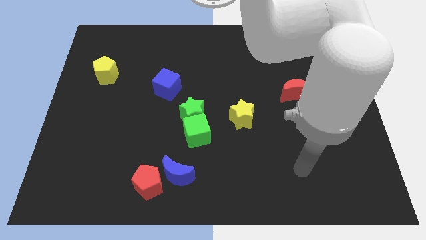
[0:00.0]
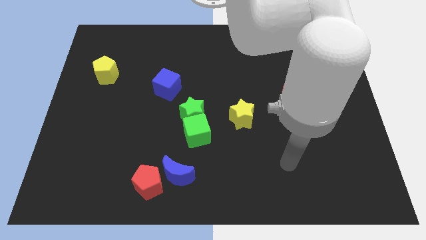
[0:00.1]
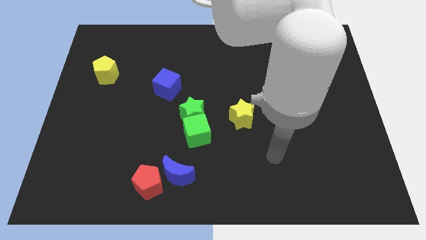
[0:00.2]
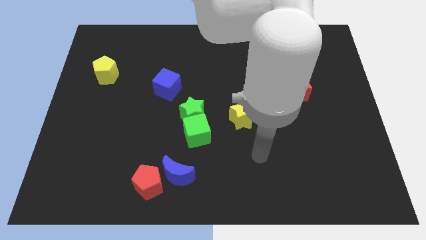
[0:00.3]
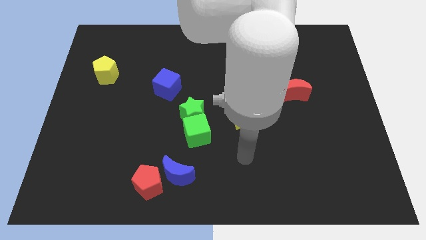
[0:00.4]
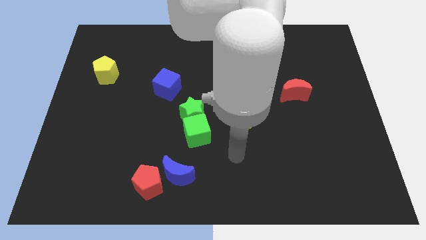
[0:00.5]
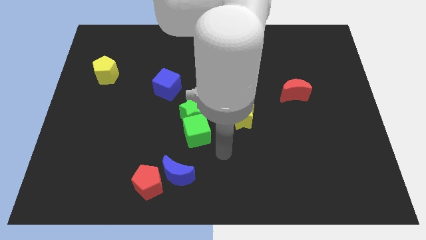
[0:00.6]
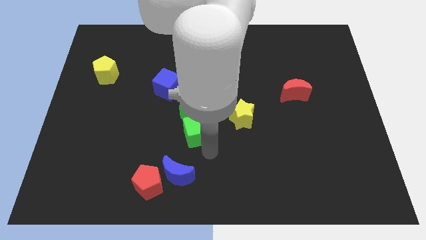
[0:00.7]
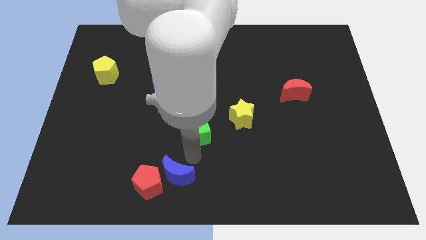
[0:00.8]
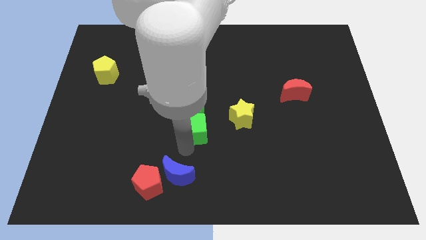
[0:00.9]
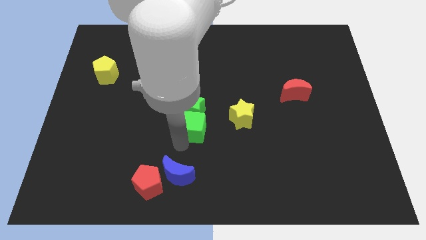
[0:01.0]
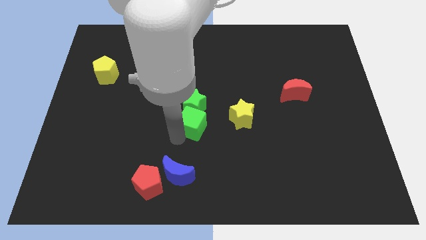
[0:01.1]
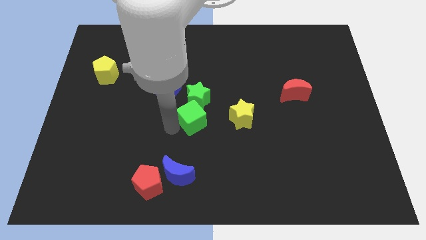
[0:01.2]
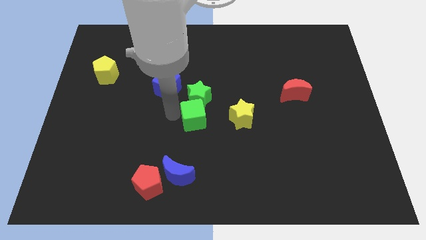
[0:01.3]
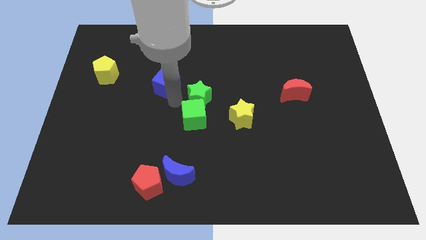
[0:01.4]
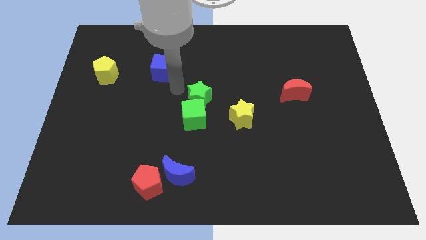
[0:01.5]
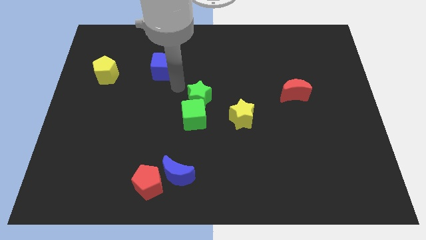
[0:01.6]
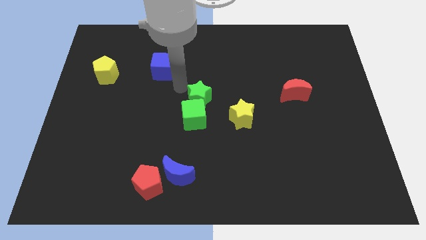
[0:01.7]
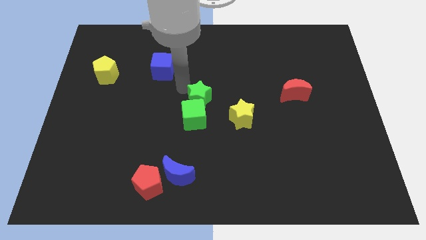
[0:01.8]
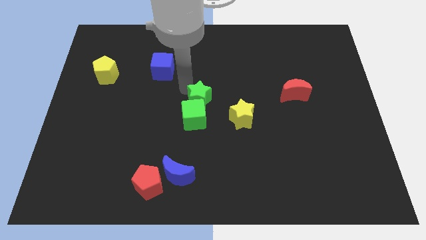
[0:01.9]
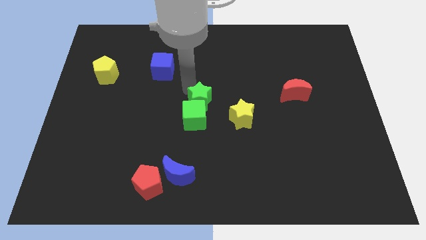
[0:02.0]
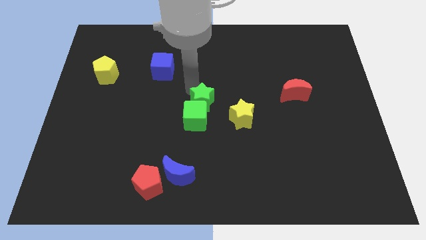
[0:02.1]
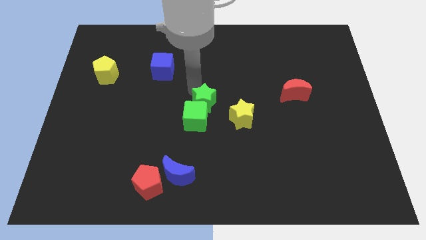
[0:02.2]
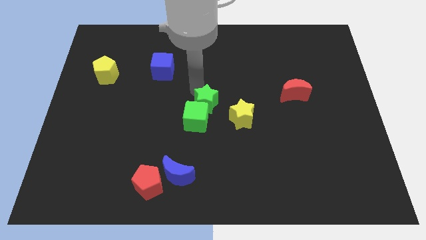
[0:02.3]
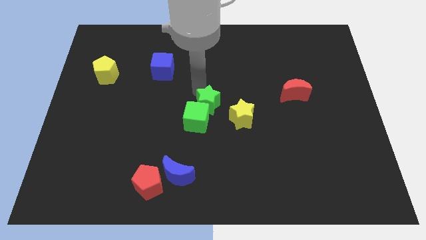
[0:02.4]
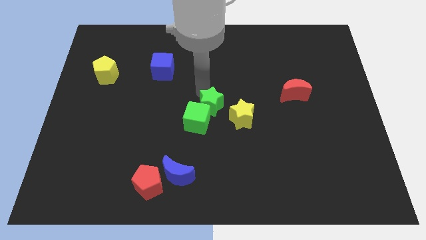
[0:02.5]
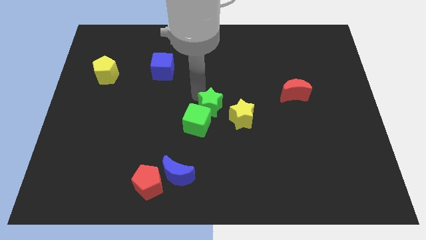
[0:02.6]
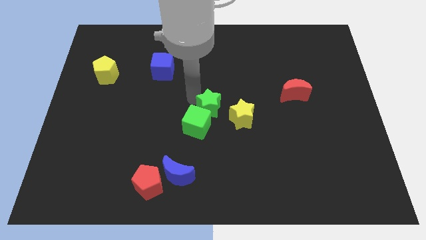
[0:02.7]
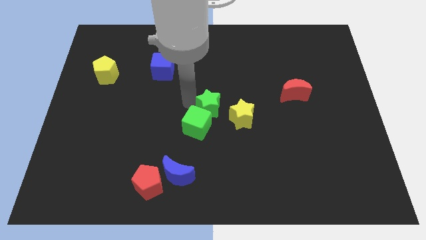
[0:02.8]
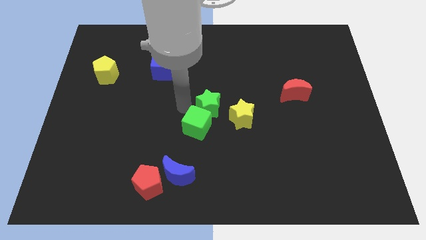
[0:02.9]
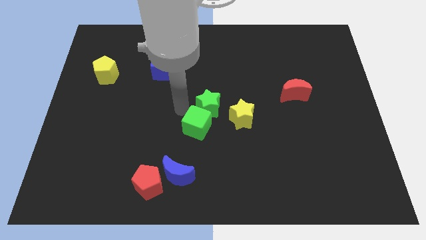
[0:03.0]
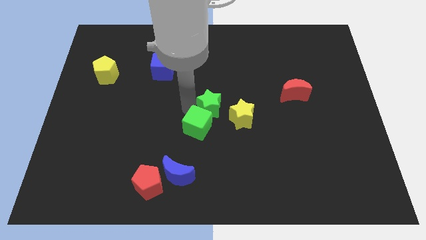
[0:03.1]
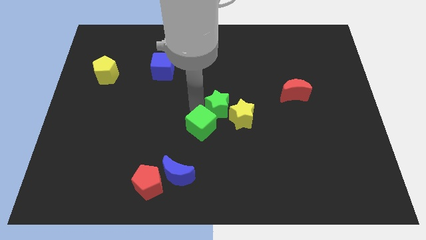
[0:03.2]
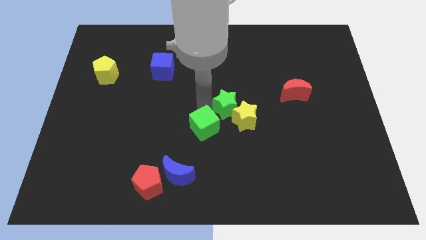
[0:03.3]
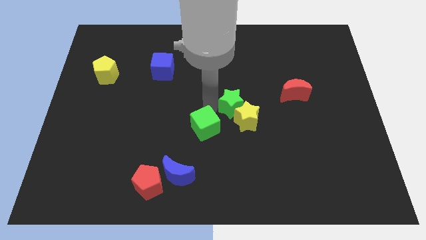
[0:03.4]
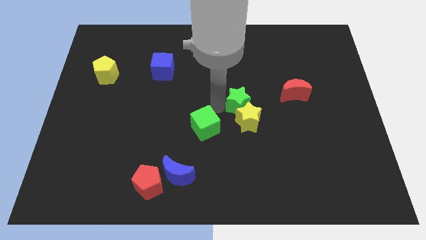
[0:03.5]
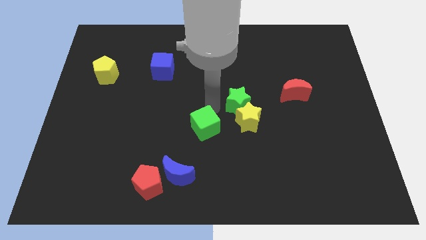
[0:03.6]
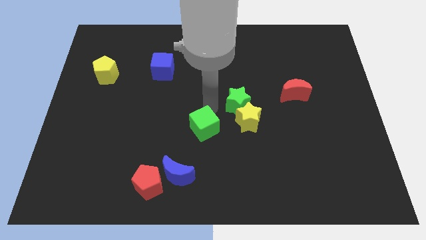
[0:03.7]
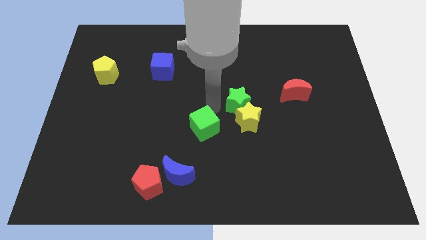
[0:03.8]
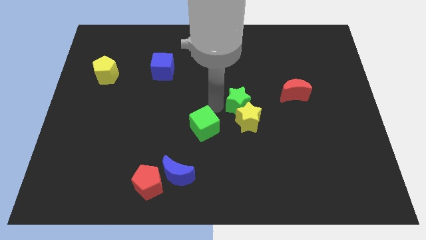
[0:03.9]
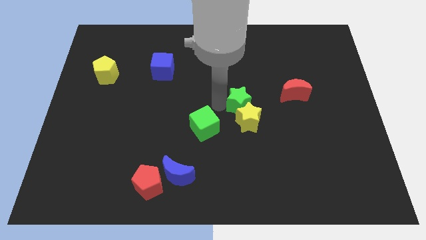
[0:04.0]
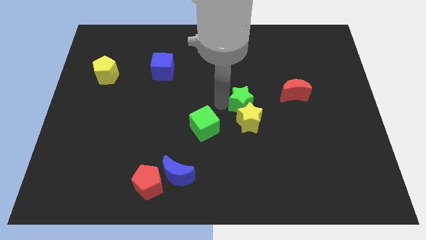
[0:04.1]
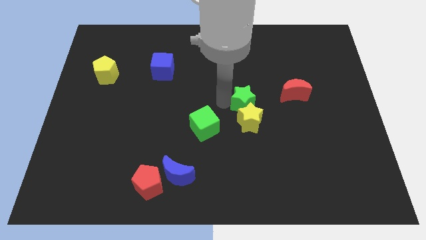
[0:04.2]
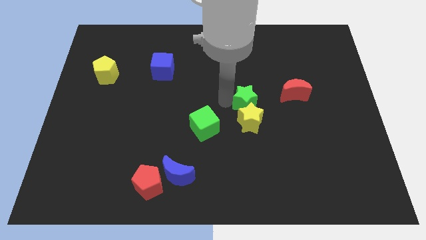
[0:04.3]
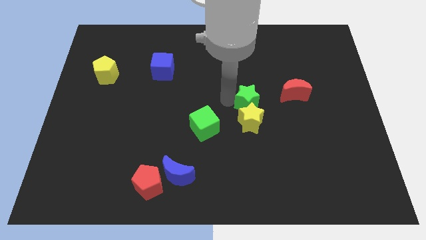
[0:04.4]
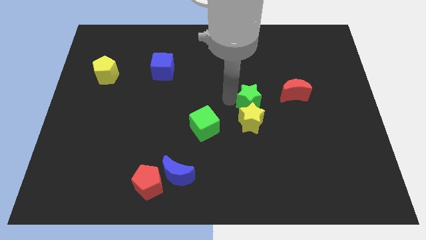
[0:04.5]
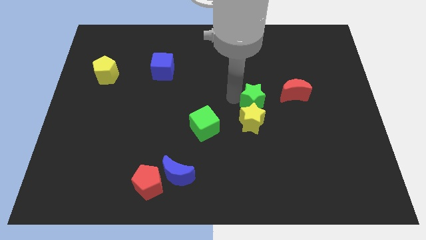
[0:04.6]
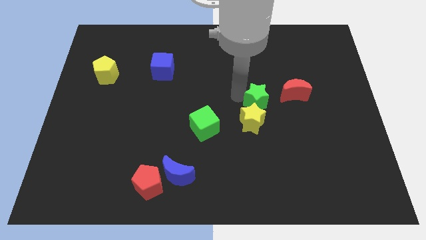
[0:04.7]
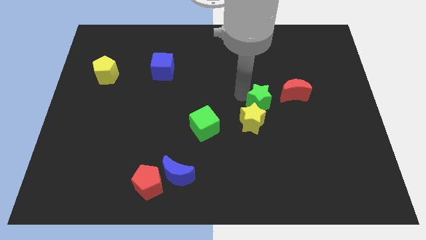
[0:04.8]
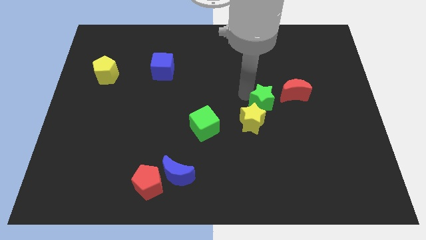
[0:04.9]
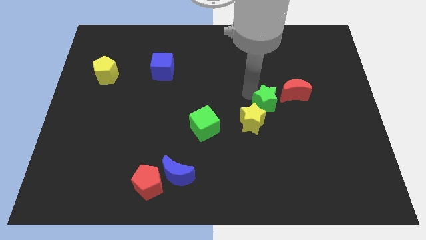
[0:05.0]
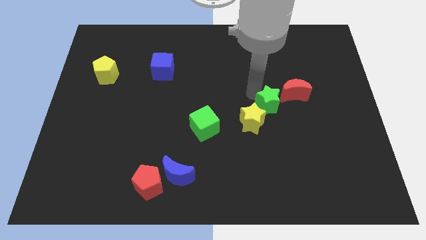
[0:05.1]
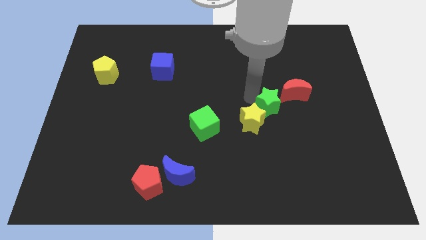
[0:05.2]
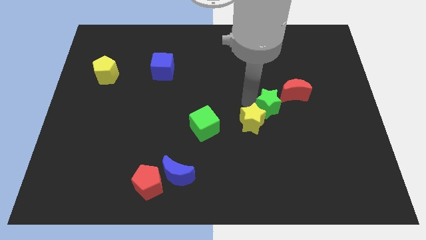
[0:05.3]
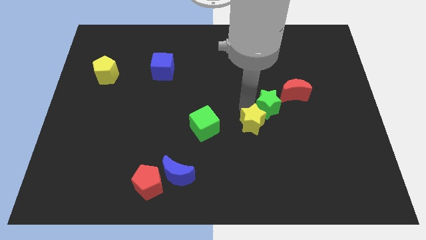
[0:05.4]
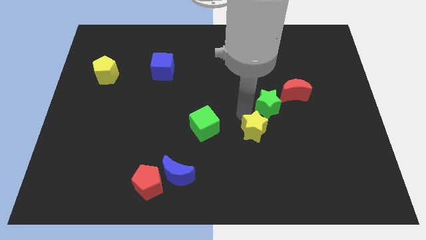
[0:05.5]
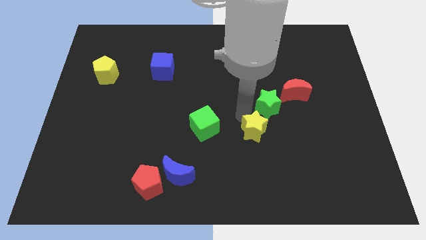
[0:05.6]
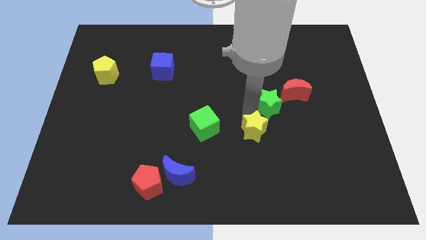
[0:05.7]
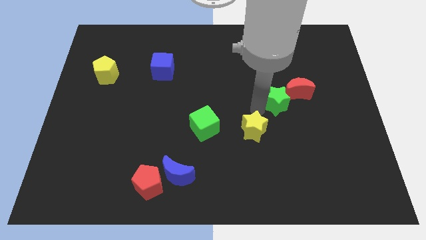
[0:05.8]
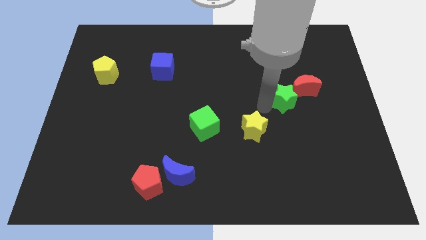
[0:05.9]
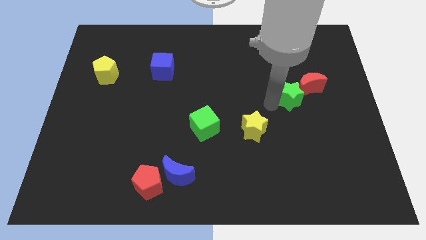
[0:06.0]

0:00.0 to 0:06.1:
move the green star towards the red moon
